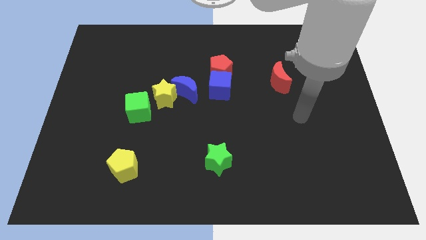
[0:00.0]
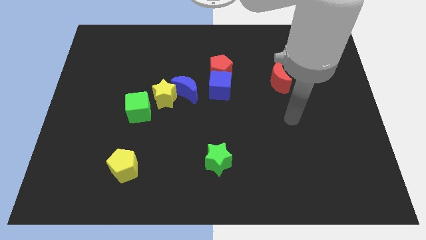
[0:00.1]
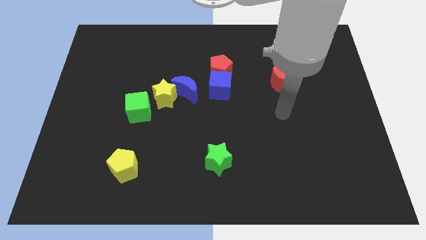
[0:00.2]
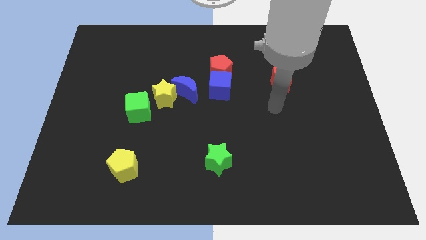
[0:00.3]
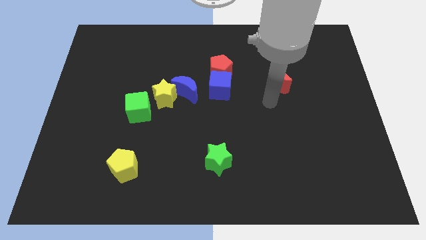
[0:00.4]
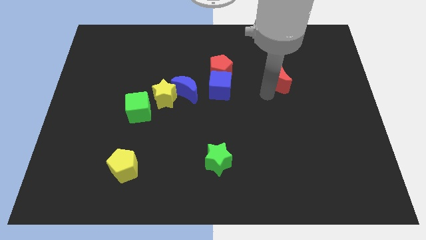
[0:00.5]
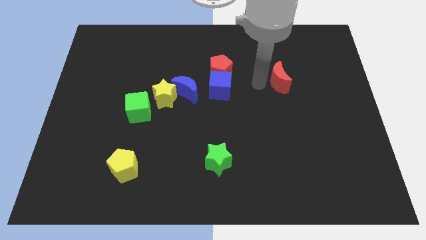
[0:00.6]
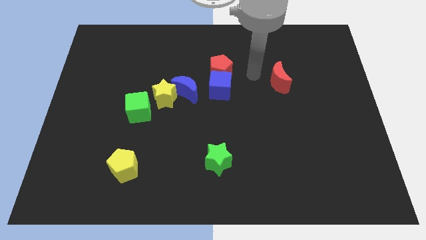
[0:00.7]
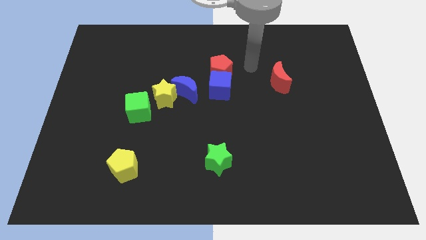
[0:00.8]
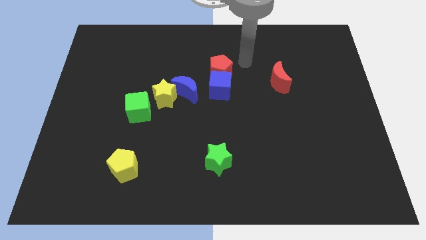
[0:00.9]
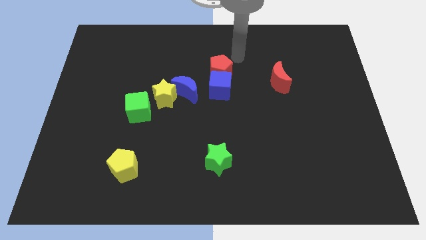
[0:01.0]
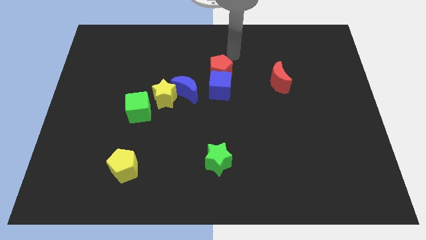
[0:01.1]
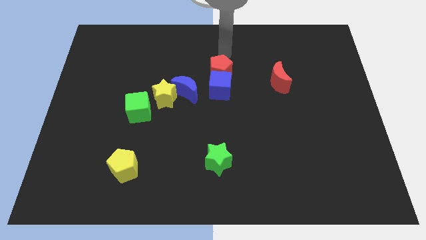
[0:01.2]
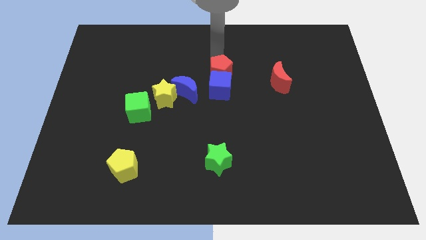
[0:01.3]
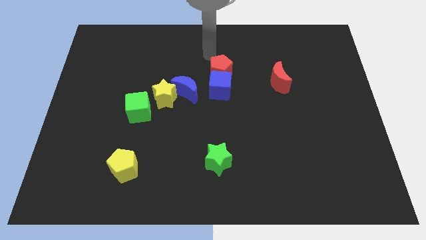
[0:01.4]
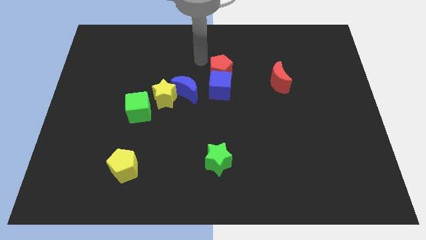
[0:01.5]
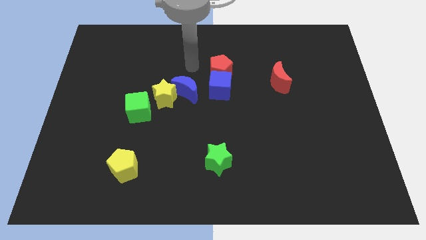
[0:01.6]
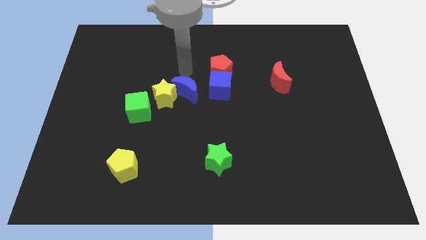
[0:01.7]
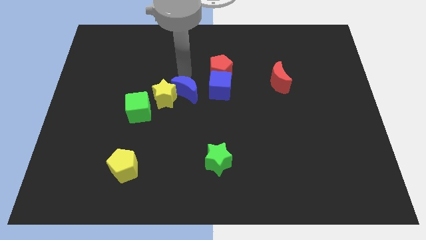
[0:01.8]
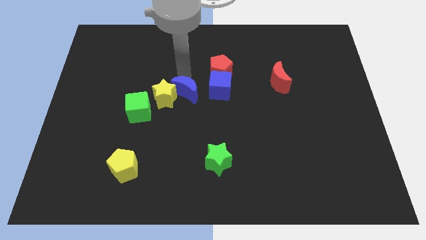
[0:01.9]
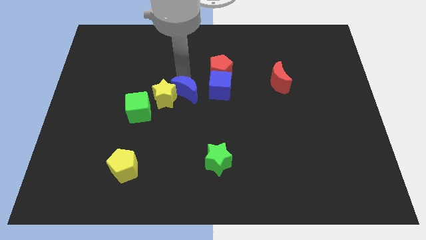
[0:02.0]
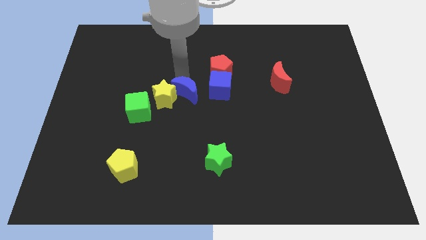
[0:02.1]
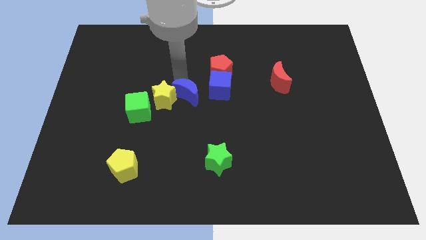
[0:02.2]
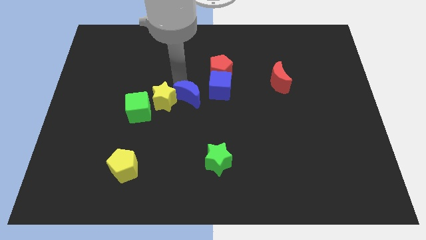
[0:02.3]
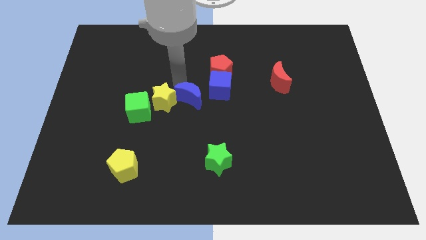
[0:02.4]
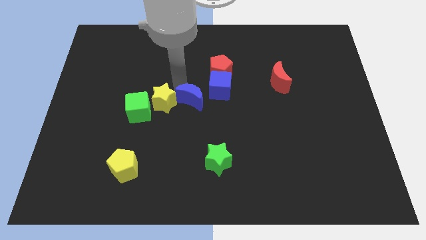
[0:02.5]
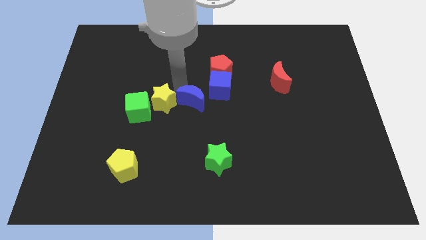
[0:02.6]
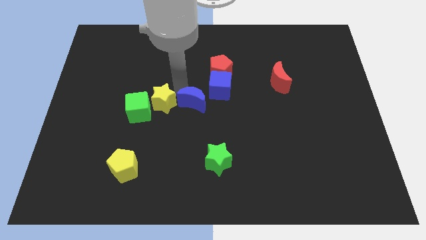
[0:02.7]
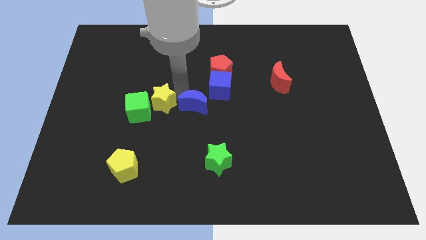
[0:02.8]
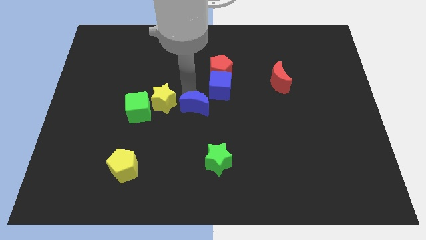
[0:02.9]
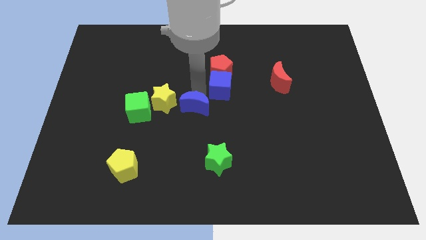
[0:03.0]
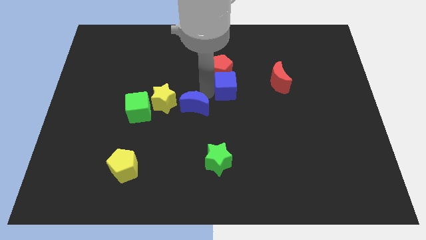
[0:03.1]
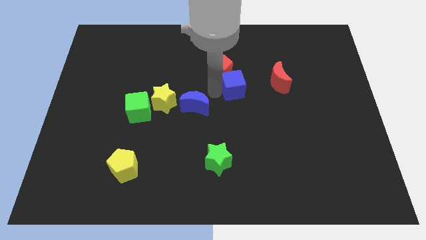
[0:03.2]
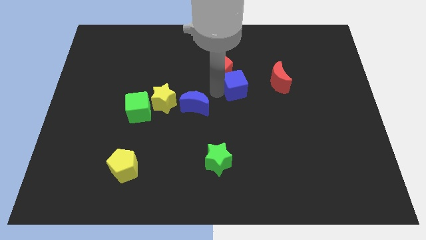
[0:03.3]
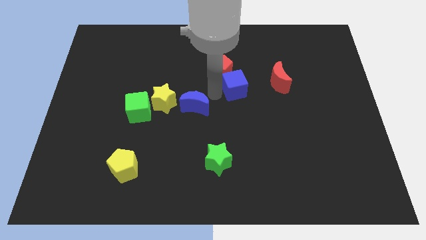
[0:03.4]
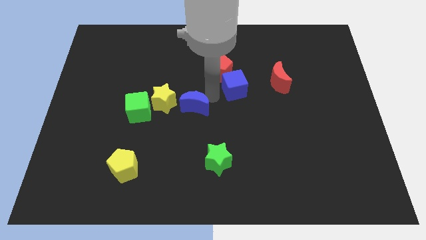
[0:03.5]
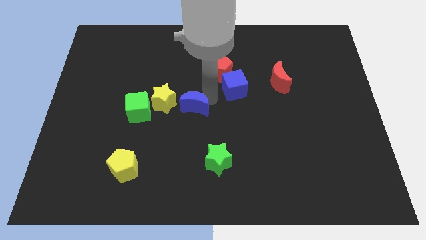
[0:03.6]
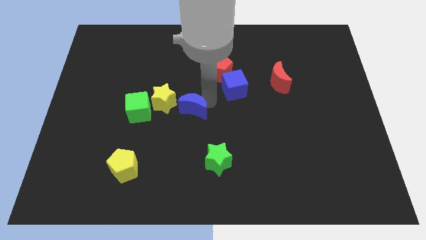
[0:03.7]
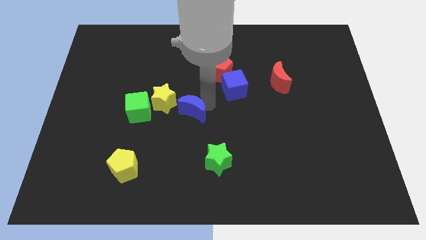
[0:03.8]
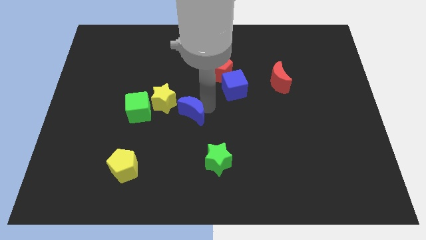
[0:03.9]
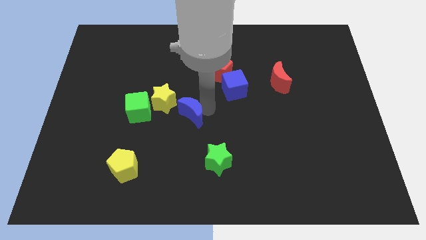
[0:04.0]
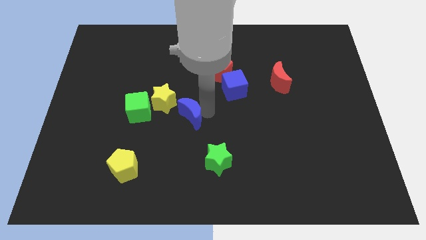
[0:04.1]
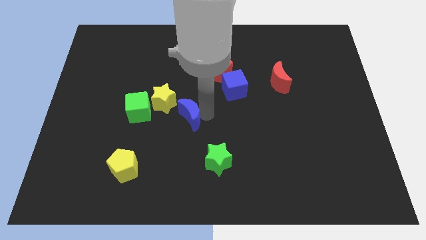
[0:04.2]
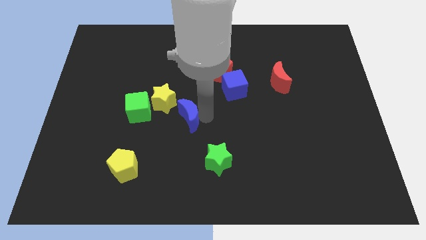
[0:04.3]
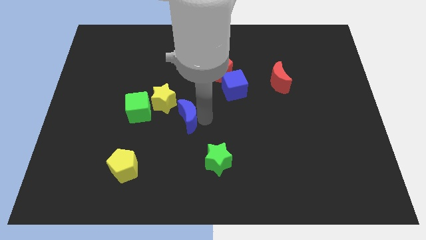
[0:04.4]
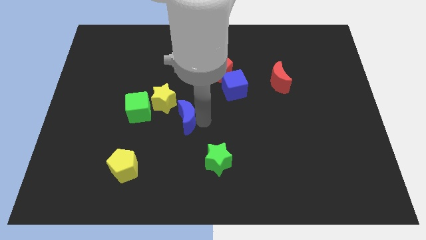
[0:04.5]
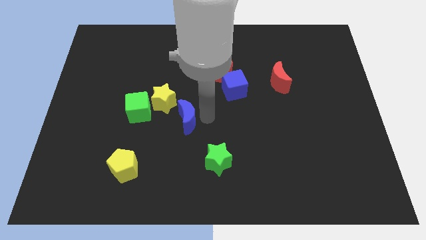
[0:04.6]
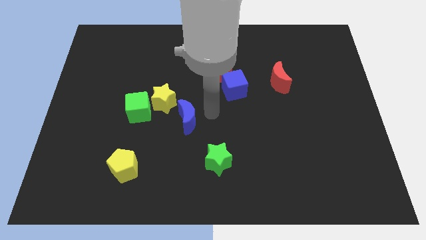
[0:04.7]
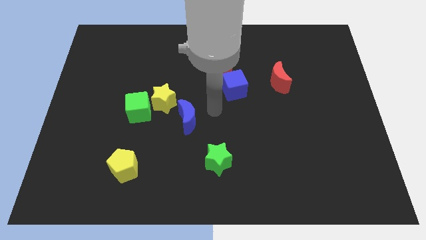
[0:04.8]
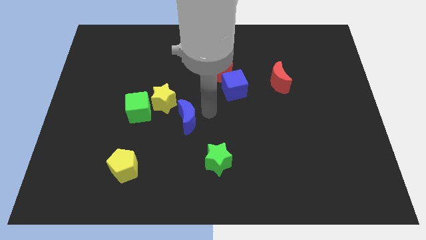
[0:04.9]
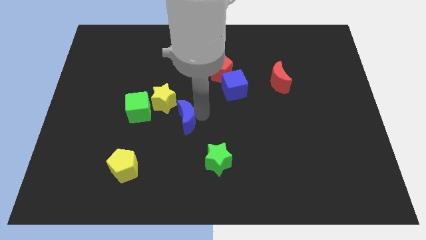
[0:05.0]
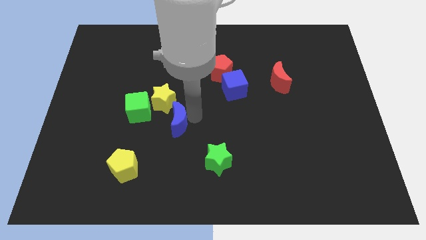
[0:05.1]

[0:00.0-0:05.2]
slide the blue moon to the bottom right side of the green cube

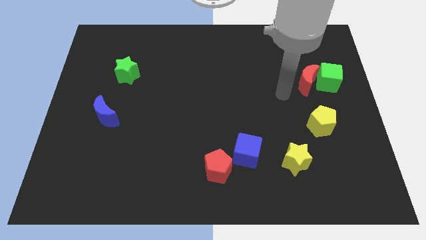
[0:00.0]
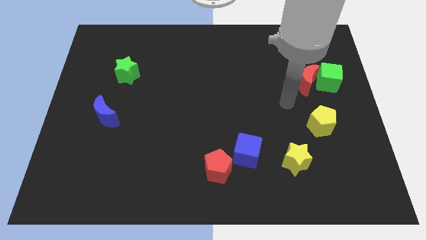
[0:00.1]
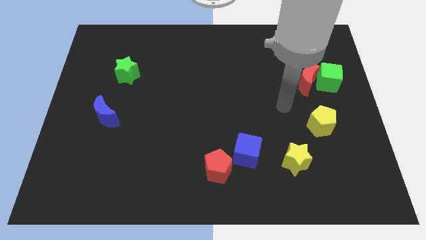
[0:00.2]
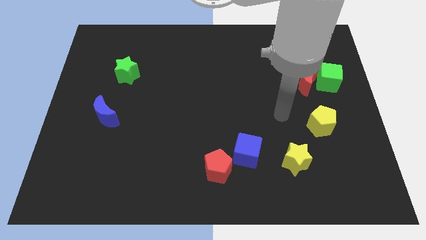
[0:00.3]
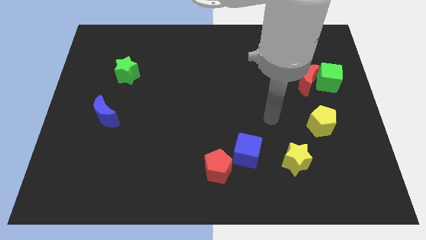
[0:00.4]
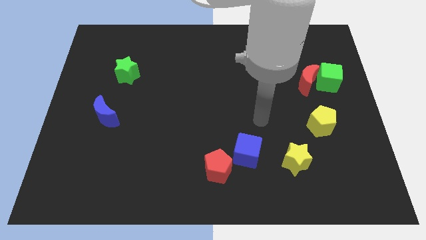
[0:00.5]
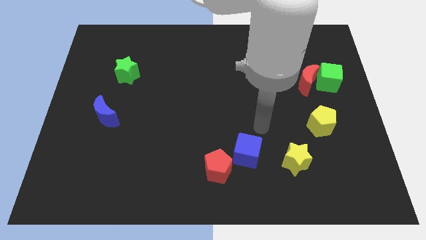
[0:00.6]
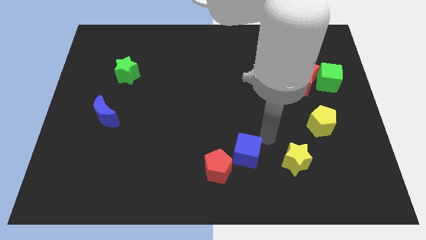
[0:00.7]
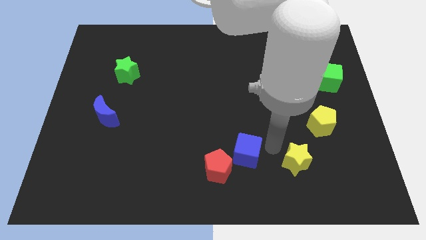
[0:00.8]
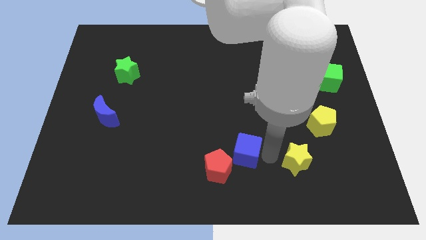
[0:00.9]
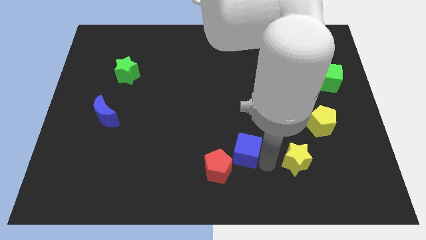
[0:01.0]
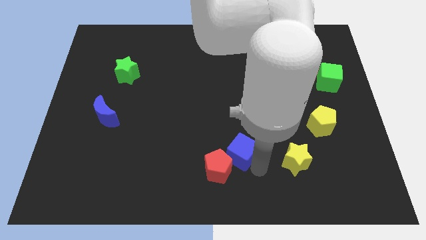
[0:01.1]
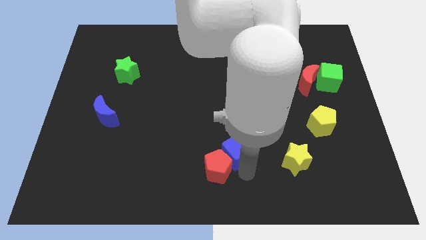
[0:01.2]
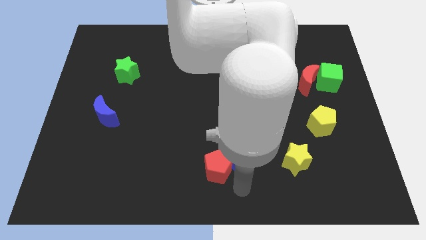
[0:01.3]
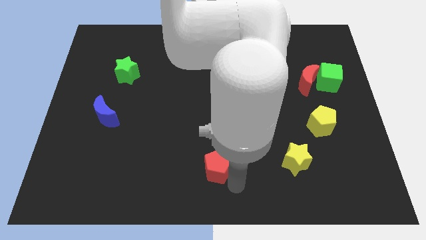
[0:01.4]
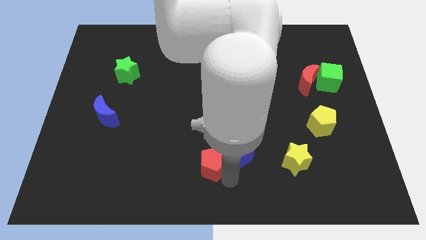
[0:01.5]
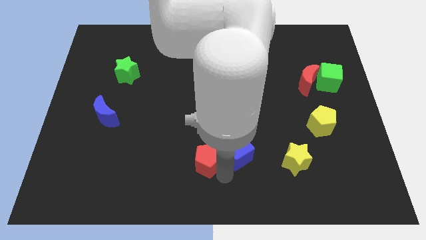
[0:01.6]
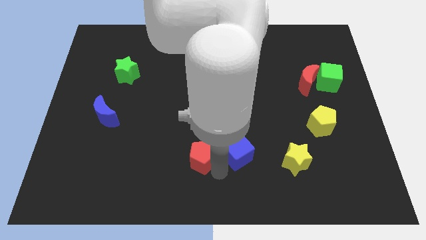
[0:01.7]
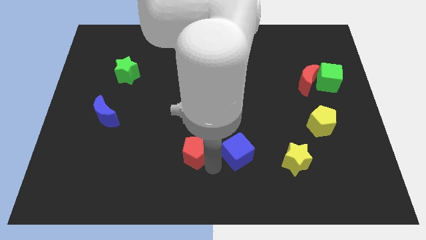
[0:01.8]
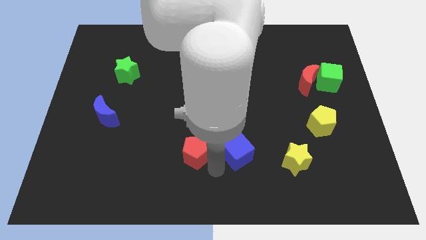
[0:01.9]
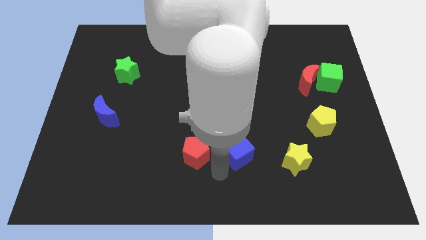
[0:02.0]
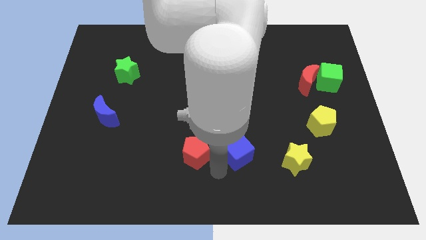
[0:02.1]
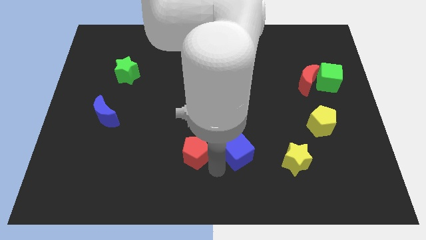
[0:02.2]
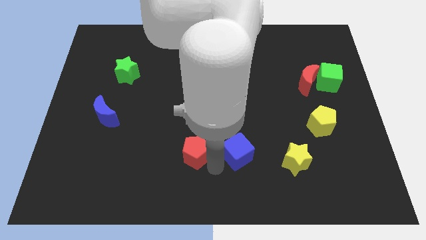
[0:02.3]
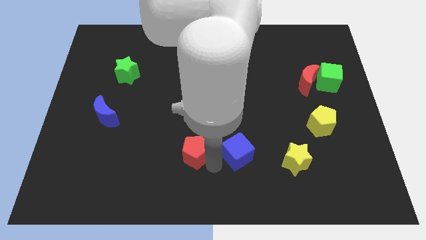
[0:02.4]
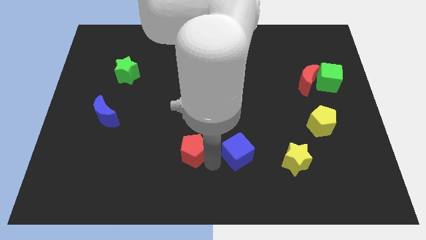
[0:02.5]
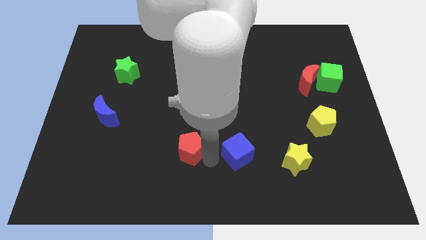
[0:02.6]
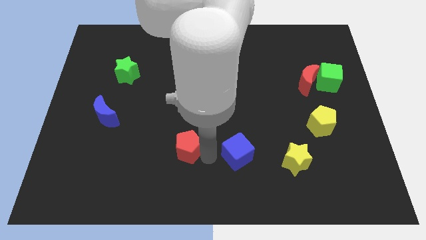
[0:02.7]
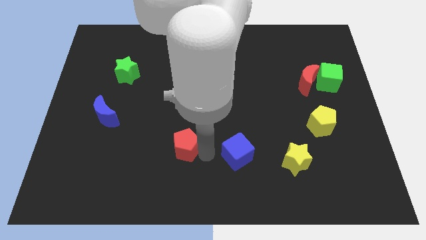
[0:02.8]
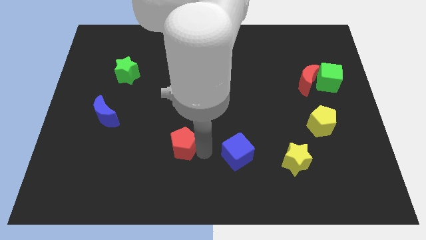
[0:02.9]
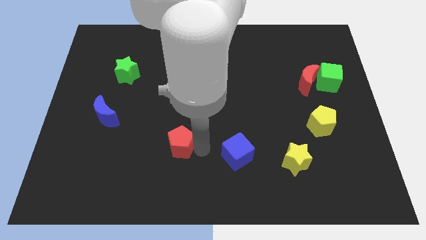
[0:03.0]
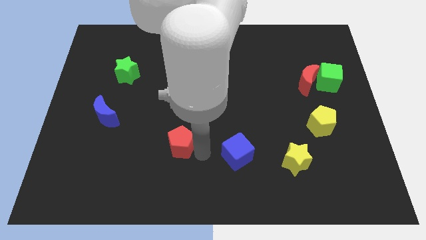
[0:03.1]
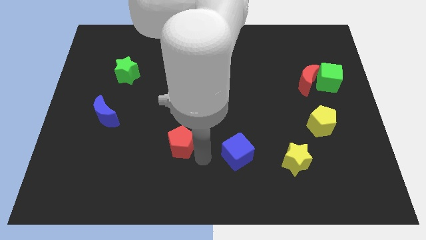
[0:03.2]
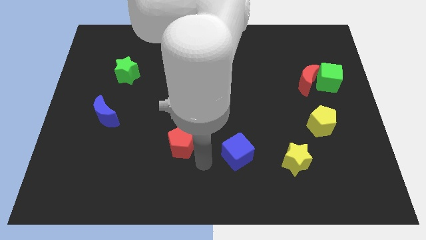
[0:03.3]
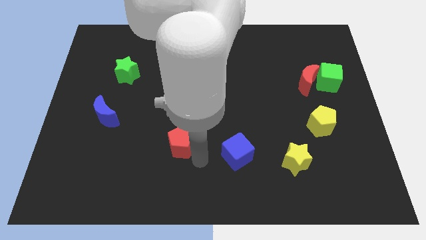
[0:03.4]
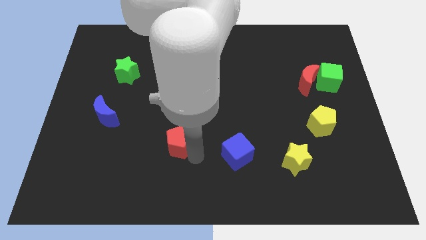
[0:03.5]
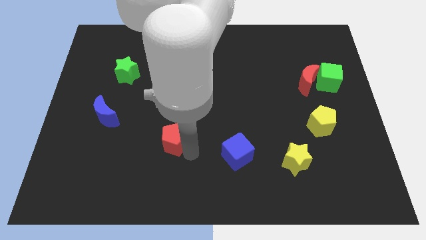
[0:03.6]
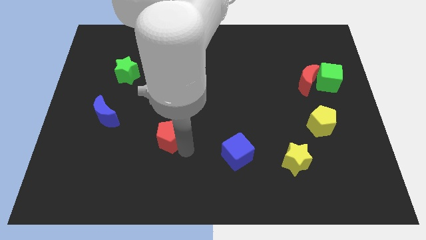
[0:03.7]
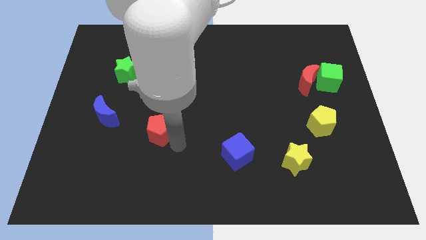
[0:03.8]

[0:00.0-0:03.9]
push the red pentagon just right of the blue moon
